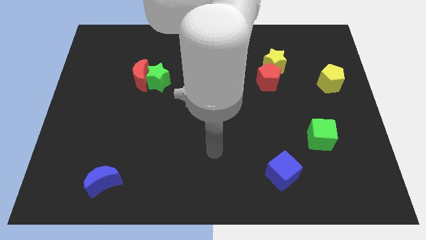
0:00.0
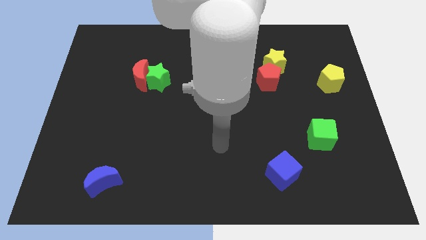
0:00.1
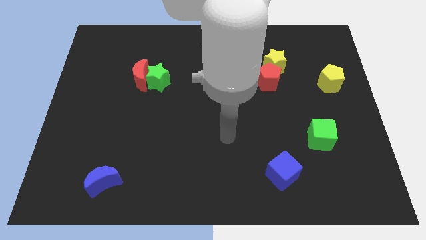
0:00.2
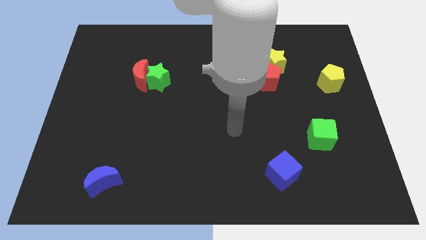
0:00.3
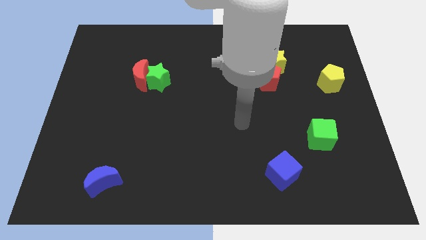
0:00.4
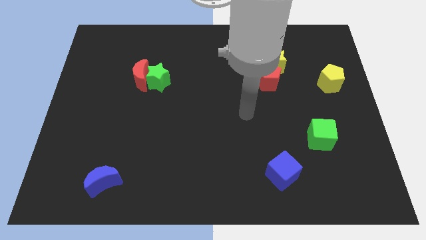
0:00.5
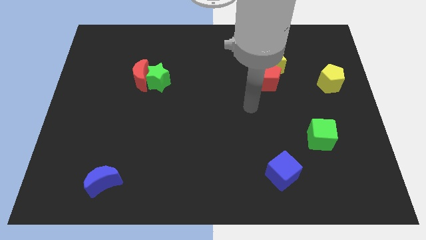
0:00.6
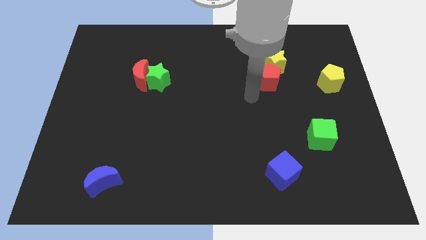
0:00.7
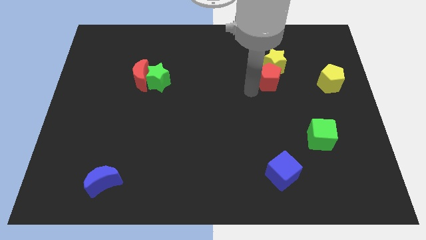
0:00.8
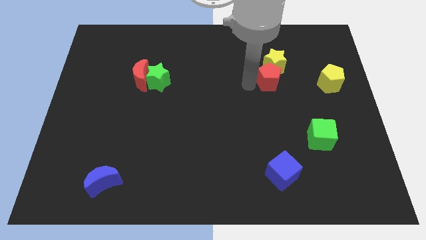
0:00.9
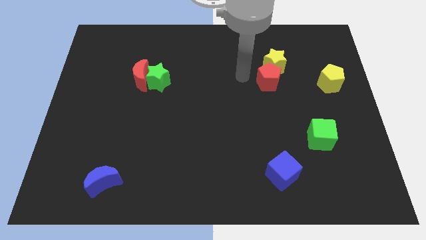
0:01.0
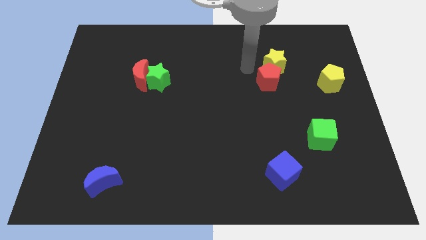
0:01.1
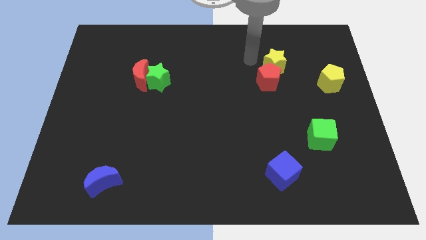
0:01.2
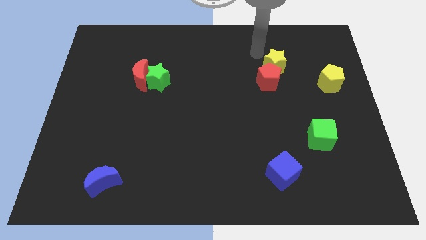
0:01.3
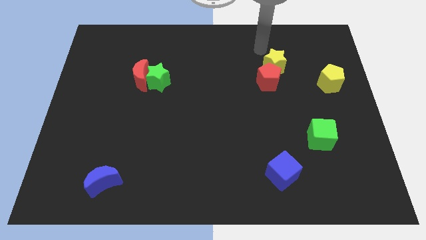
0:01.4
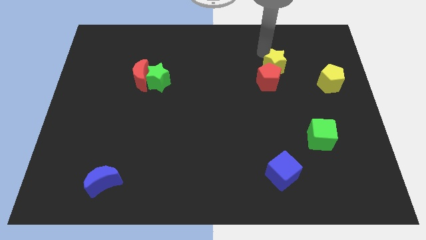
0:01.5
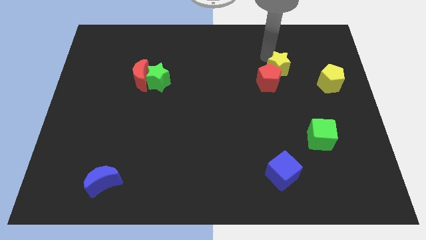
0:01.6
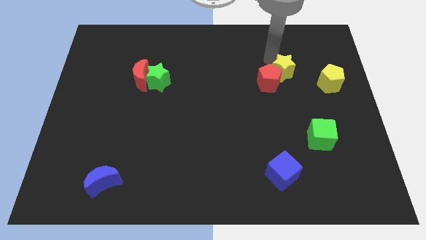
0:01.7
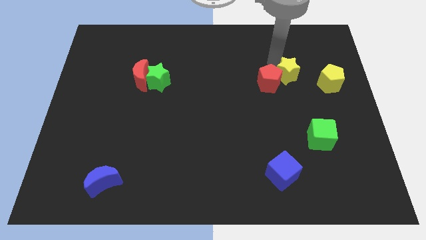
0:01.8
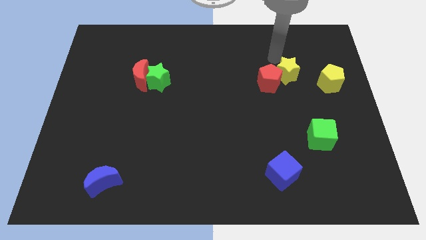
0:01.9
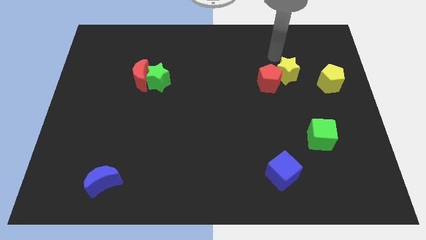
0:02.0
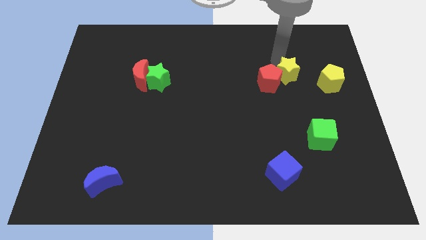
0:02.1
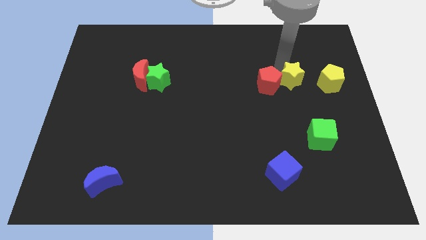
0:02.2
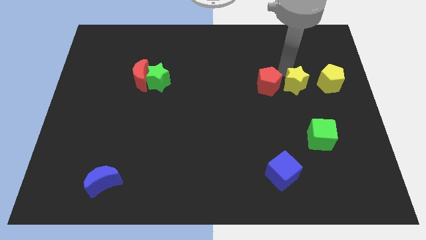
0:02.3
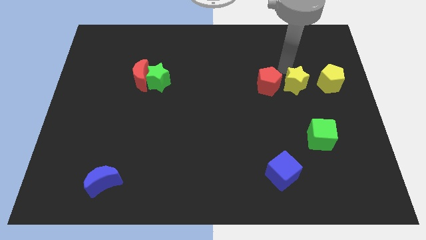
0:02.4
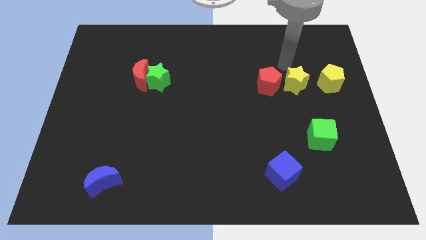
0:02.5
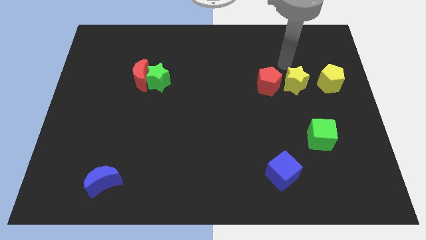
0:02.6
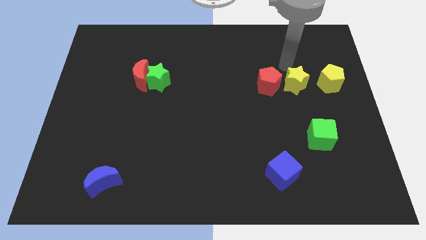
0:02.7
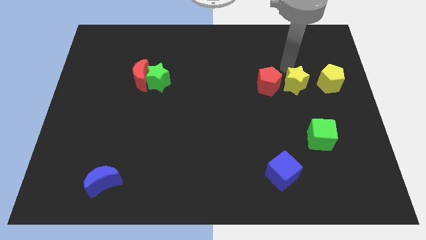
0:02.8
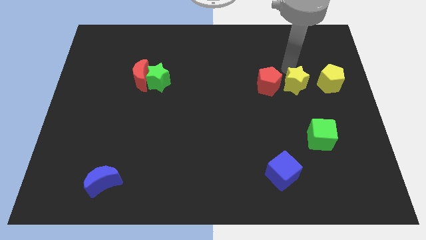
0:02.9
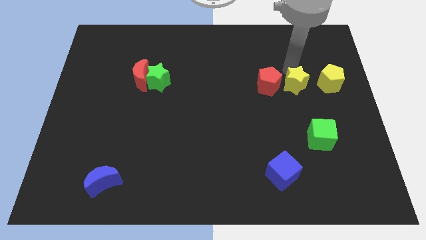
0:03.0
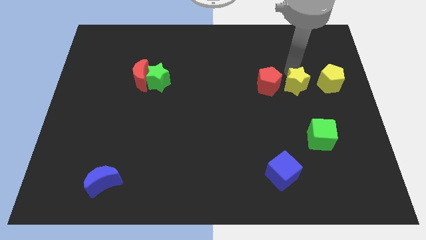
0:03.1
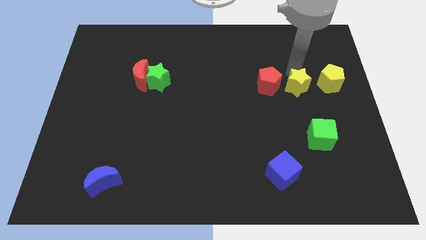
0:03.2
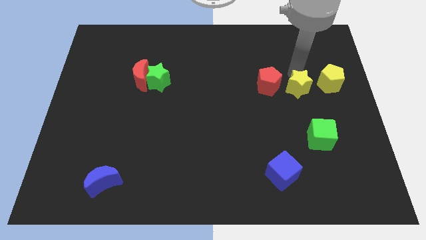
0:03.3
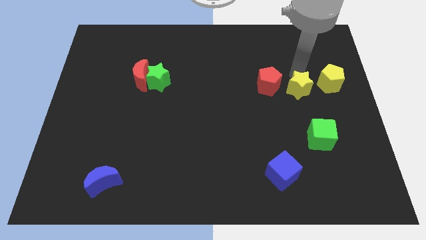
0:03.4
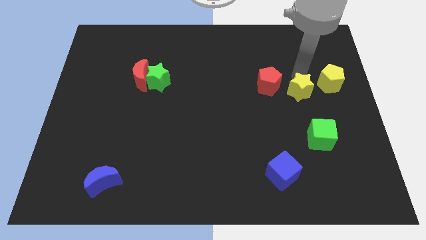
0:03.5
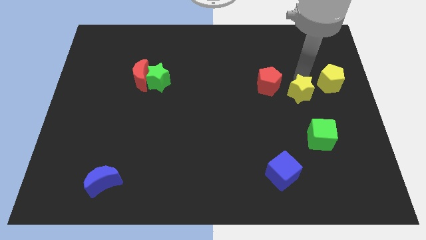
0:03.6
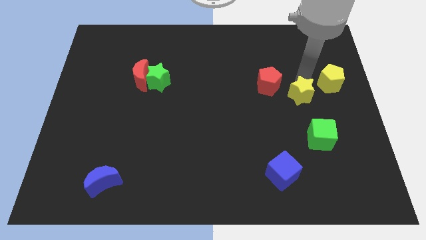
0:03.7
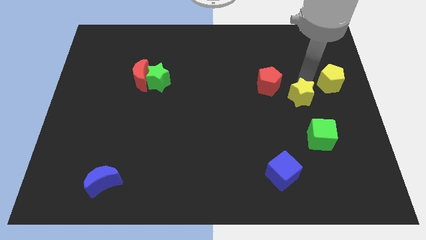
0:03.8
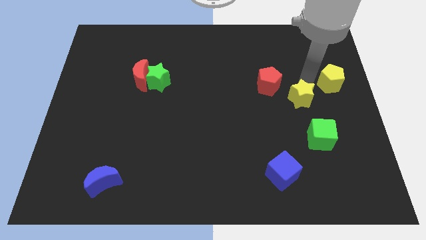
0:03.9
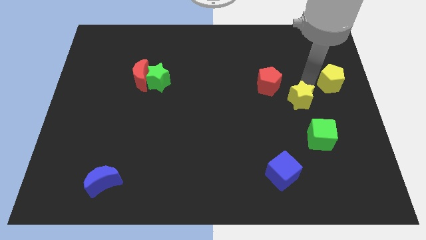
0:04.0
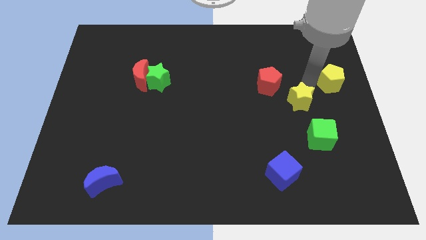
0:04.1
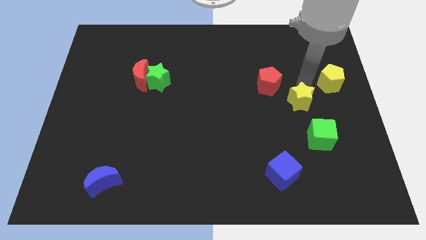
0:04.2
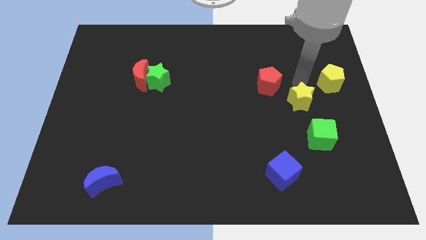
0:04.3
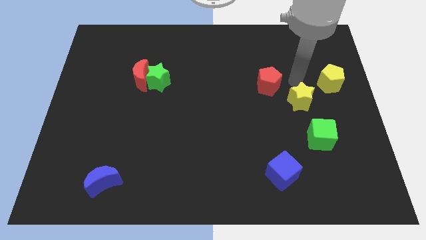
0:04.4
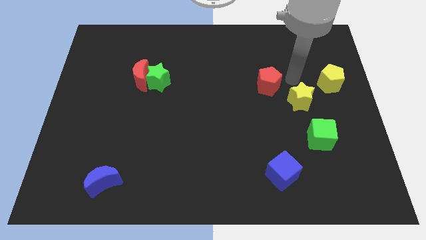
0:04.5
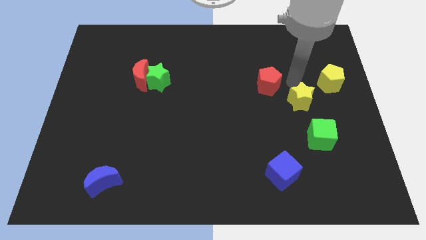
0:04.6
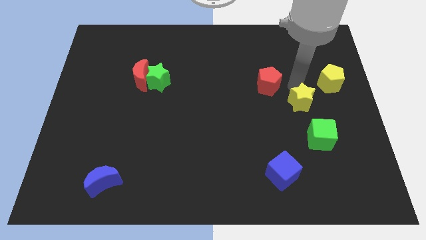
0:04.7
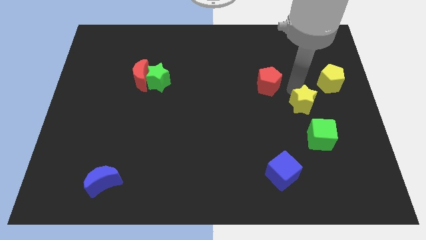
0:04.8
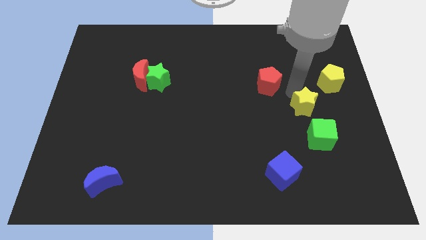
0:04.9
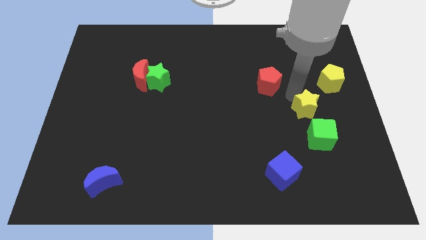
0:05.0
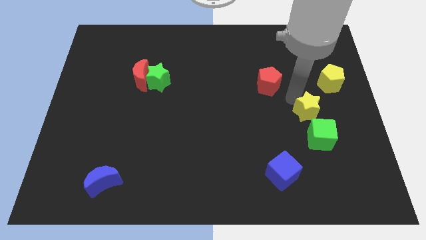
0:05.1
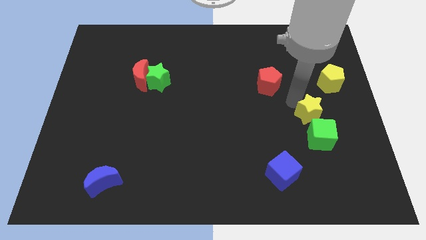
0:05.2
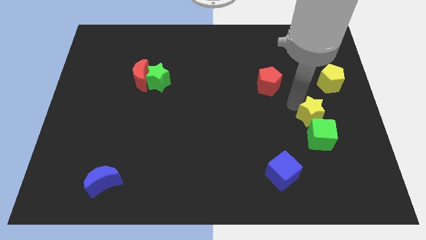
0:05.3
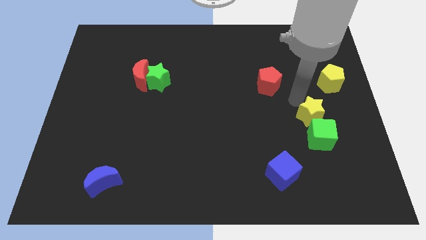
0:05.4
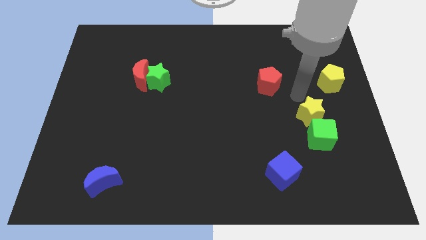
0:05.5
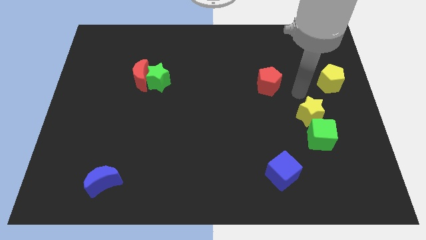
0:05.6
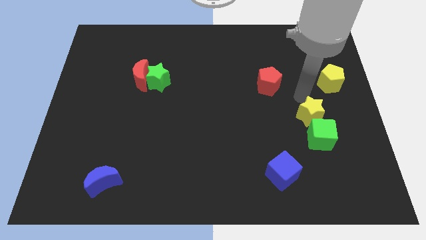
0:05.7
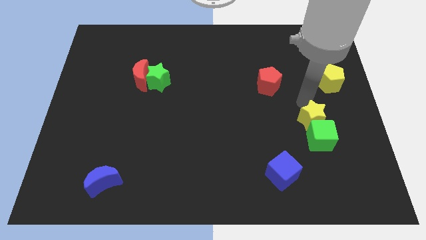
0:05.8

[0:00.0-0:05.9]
move the yellow star next to the green cube

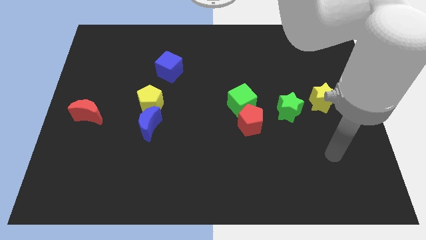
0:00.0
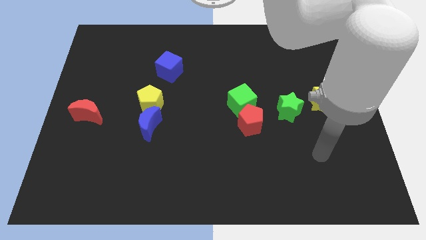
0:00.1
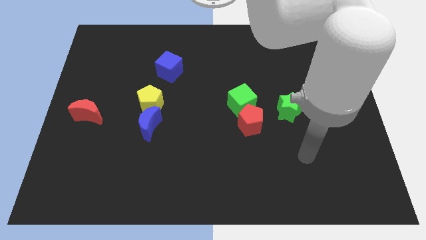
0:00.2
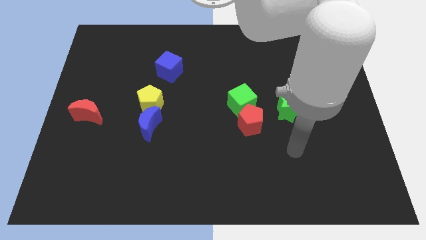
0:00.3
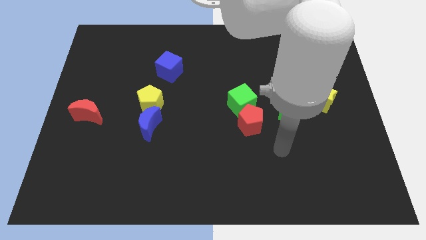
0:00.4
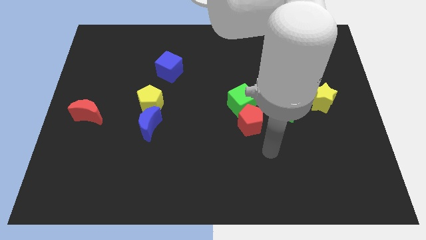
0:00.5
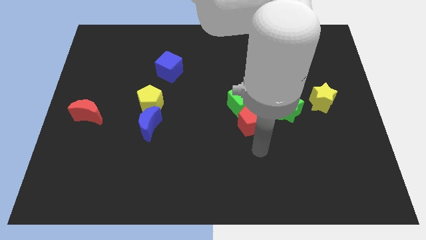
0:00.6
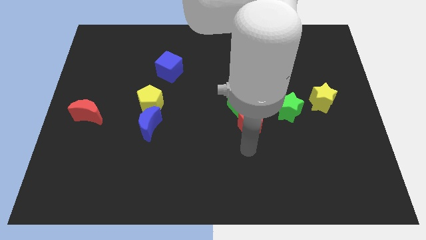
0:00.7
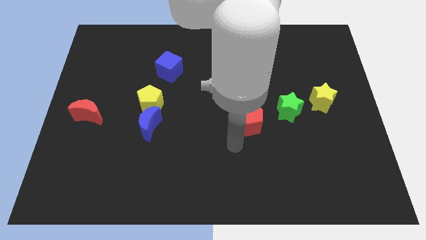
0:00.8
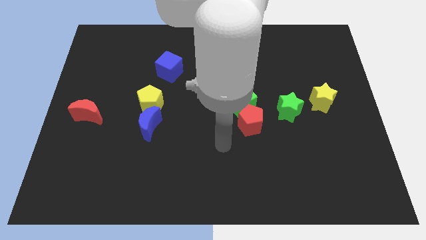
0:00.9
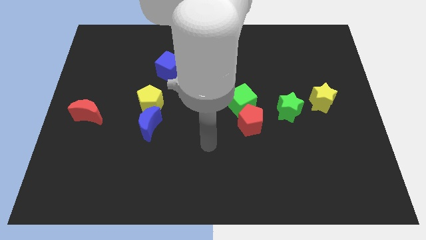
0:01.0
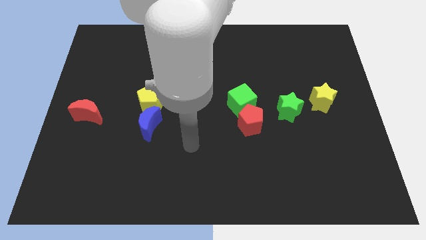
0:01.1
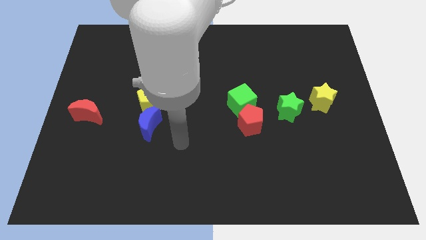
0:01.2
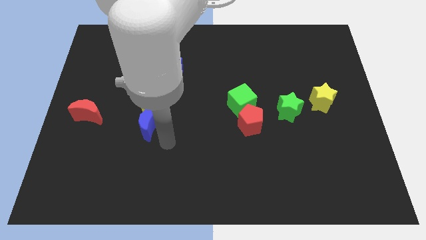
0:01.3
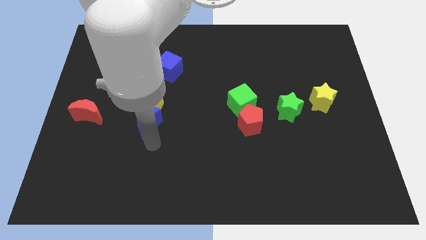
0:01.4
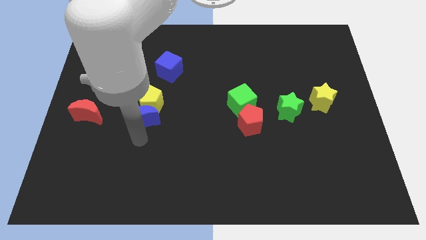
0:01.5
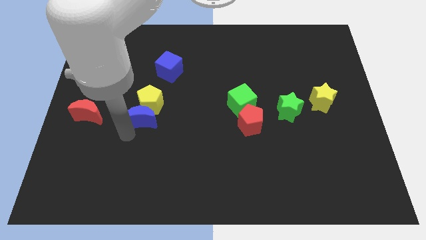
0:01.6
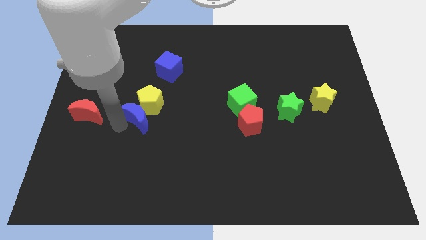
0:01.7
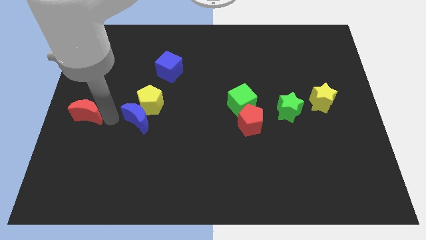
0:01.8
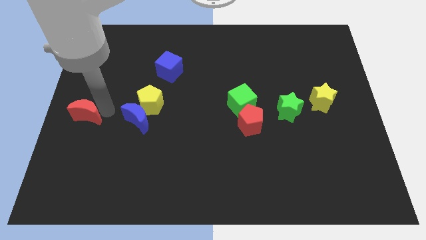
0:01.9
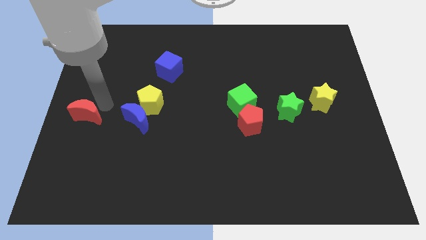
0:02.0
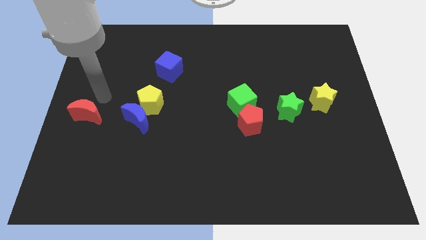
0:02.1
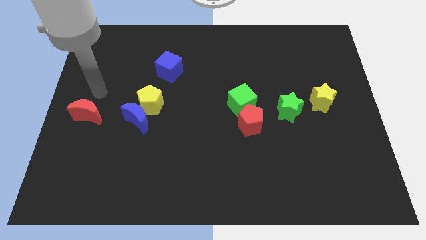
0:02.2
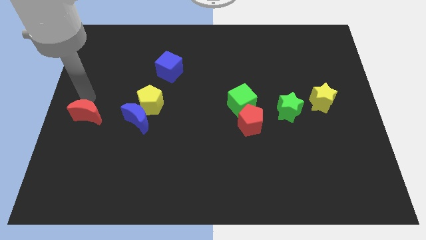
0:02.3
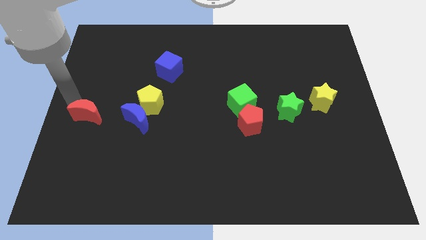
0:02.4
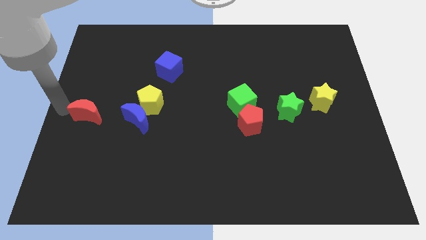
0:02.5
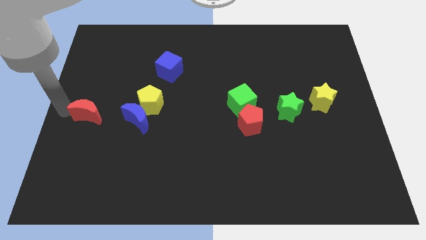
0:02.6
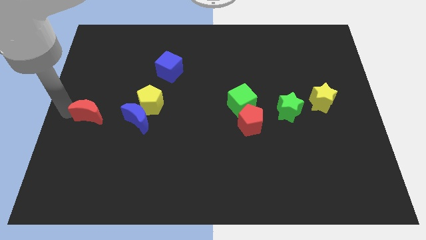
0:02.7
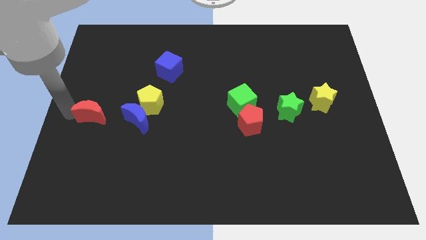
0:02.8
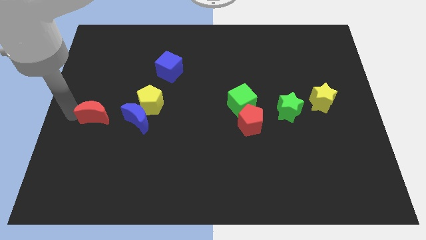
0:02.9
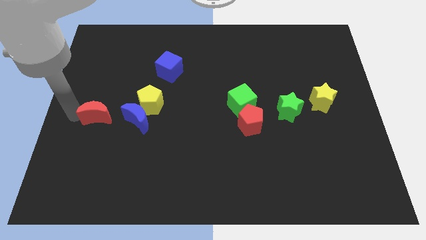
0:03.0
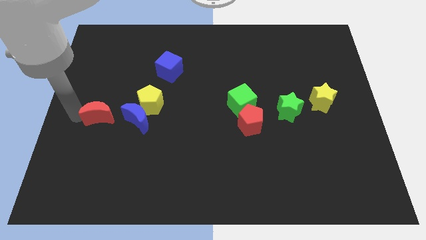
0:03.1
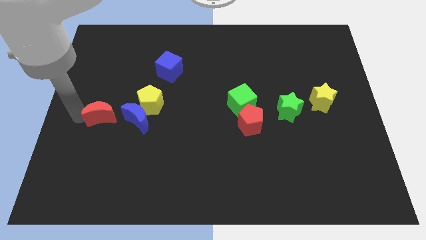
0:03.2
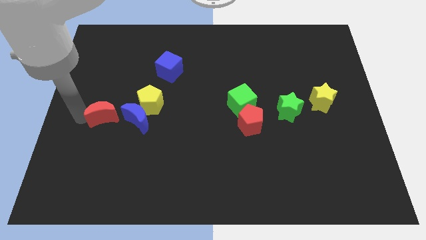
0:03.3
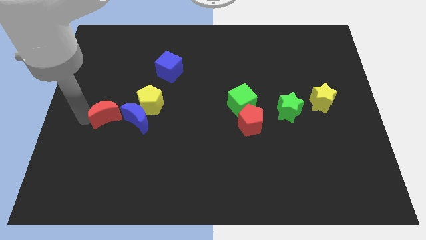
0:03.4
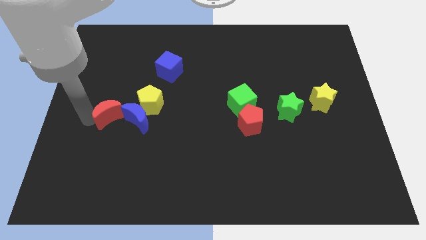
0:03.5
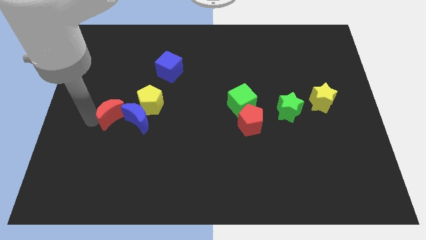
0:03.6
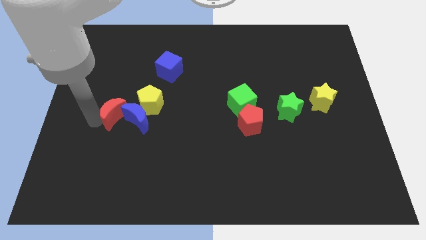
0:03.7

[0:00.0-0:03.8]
put the red moon towards the blue moon
